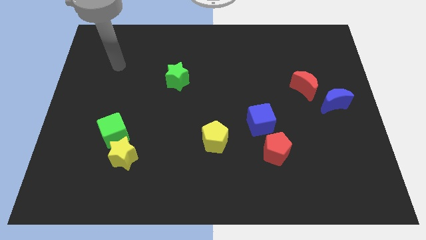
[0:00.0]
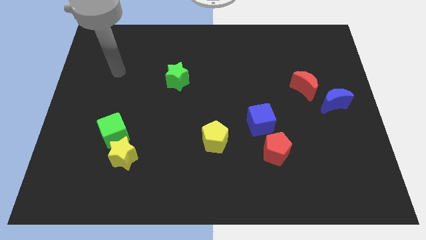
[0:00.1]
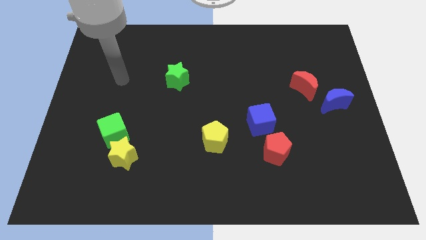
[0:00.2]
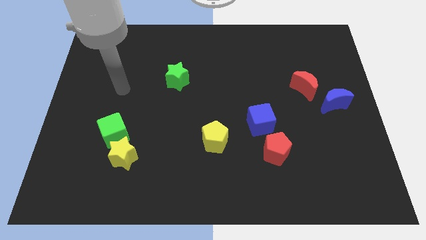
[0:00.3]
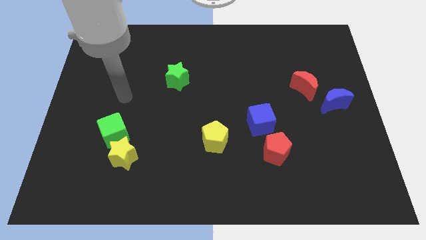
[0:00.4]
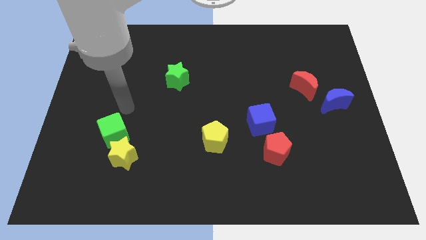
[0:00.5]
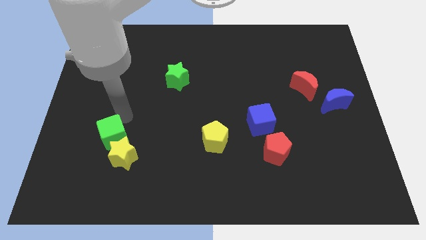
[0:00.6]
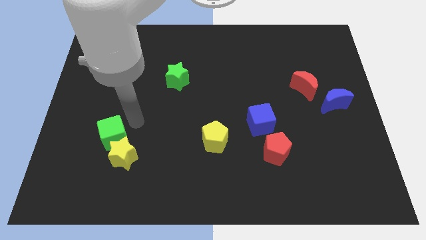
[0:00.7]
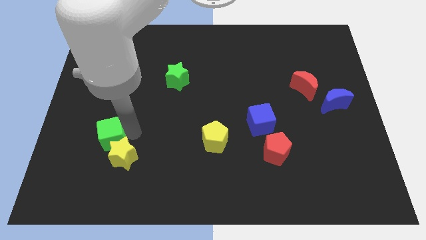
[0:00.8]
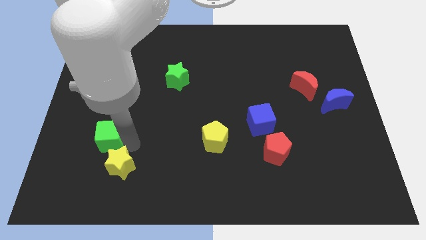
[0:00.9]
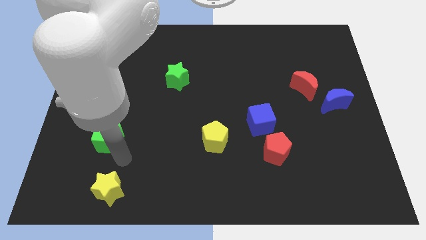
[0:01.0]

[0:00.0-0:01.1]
separate the green cube from the yellow star

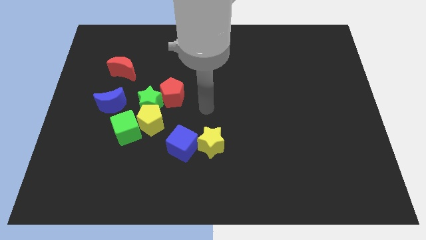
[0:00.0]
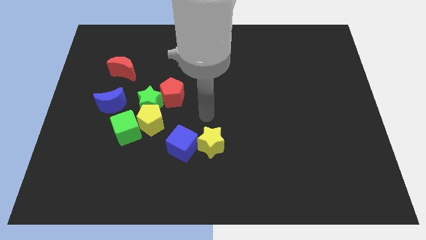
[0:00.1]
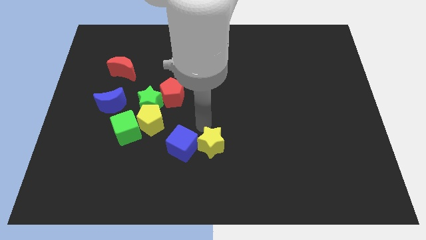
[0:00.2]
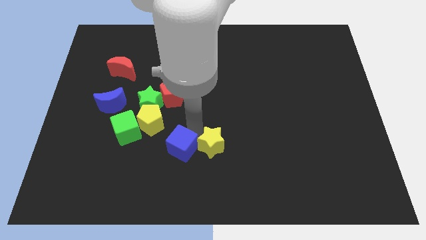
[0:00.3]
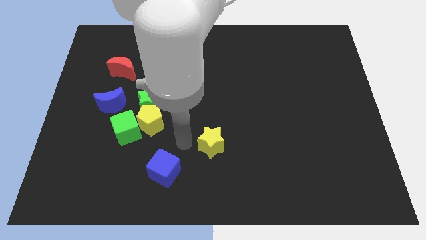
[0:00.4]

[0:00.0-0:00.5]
pull the yellow star apart from the blue cube

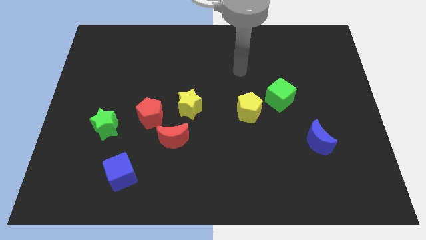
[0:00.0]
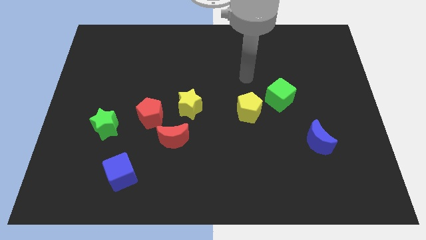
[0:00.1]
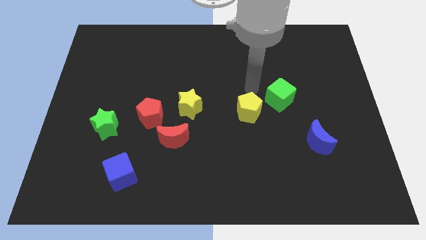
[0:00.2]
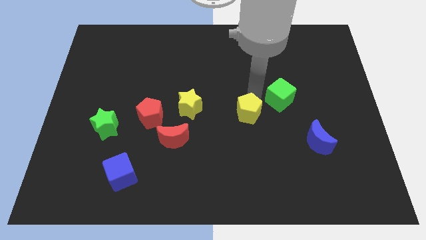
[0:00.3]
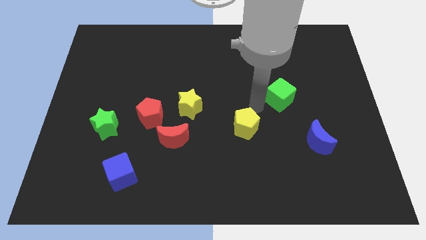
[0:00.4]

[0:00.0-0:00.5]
move the green cube away from the yellow pentagon

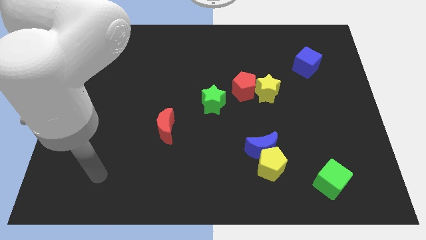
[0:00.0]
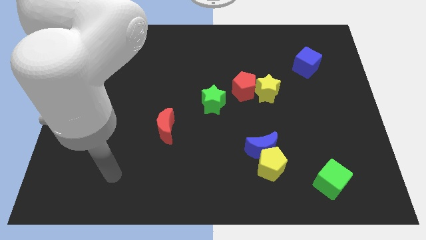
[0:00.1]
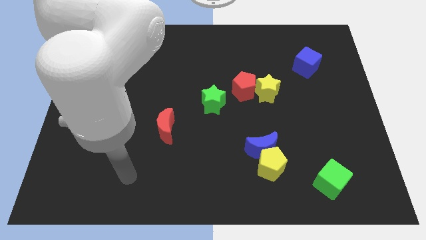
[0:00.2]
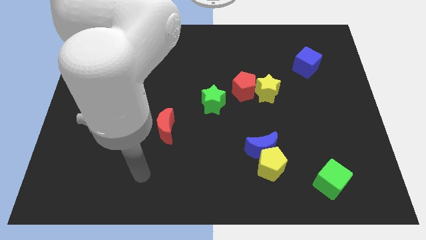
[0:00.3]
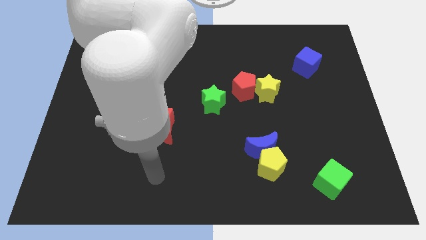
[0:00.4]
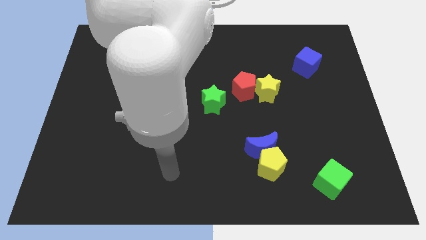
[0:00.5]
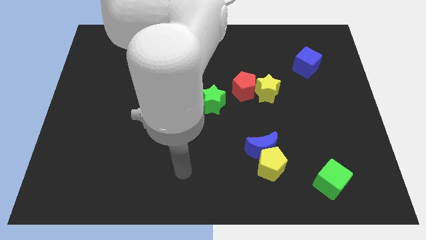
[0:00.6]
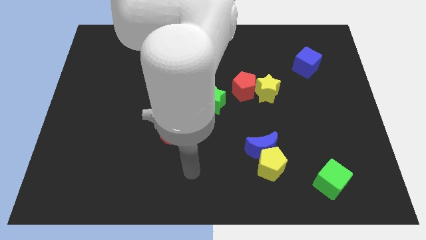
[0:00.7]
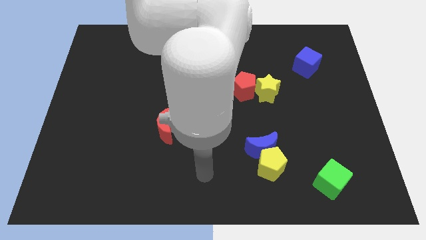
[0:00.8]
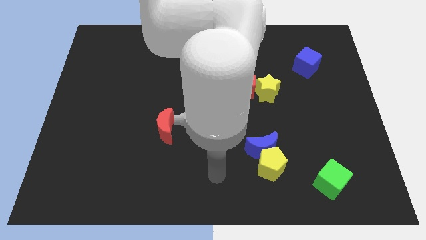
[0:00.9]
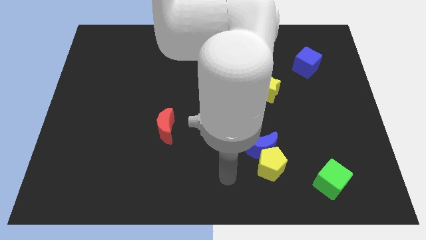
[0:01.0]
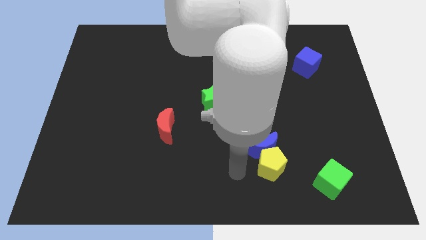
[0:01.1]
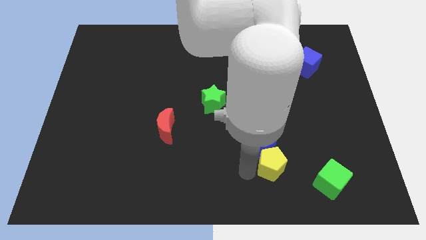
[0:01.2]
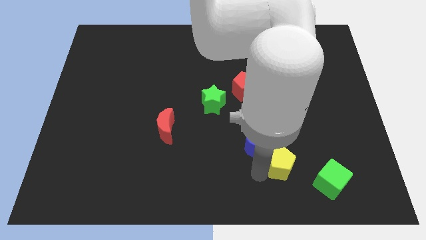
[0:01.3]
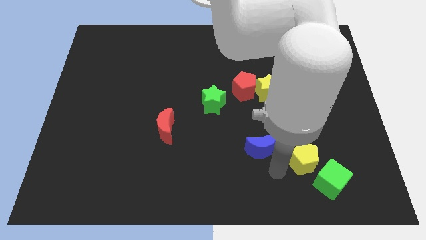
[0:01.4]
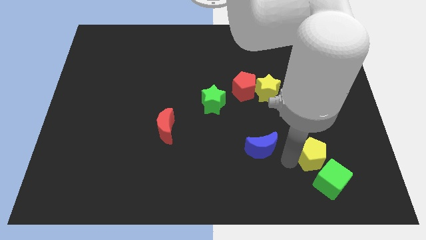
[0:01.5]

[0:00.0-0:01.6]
pull the blue moon apart from the yellow pentagon

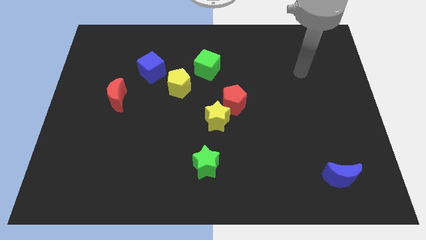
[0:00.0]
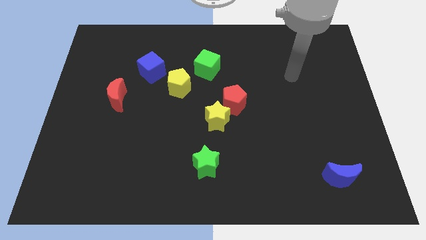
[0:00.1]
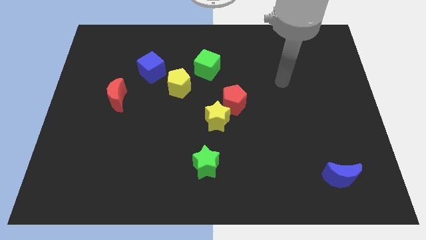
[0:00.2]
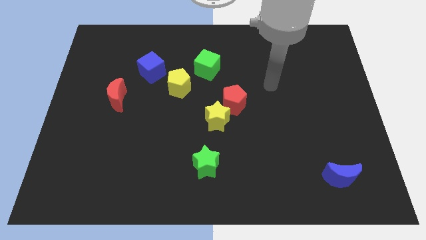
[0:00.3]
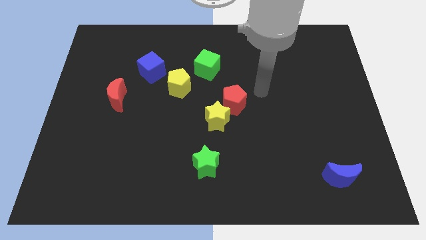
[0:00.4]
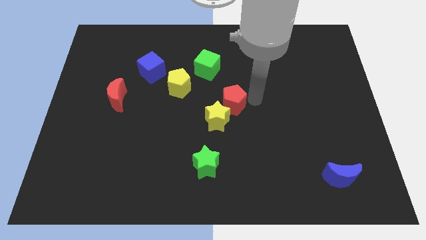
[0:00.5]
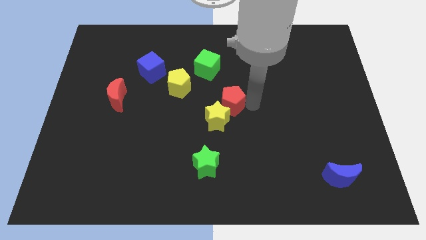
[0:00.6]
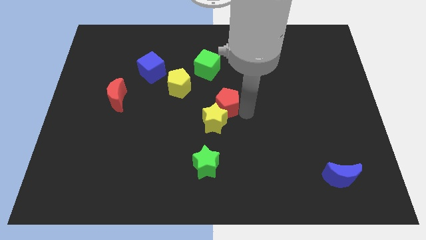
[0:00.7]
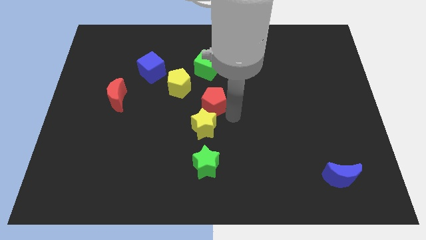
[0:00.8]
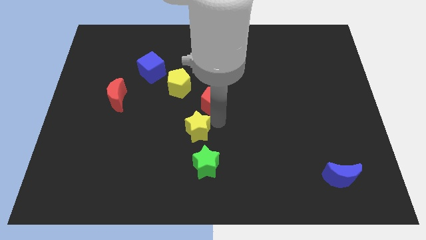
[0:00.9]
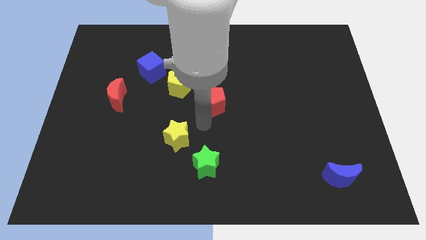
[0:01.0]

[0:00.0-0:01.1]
move the red pentagon away from the yellow star

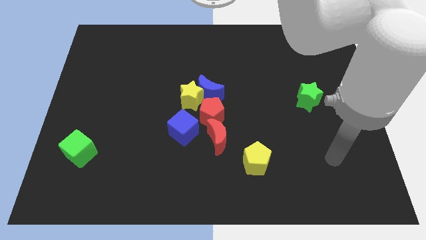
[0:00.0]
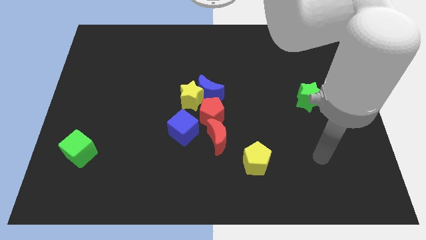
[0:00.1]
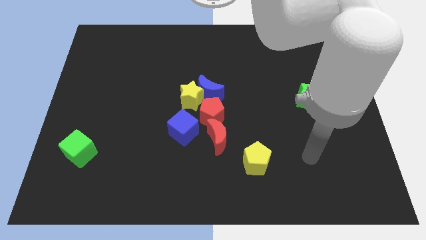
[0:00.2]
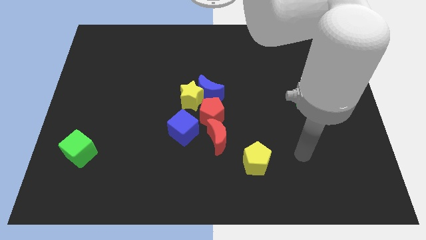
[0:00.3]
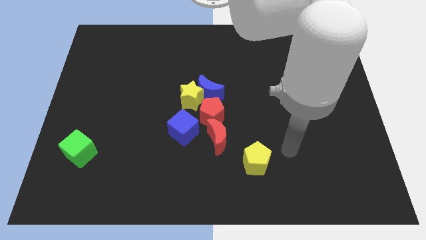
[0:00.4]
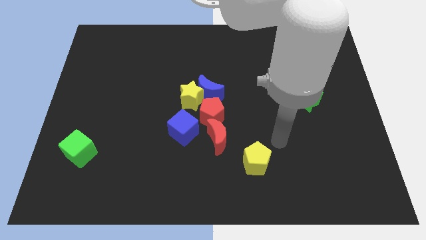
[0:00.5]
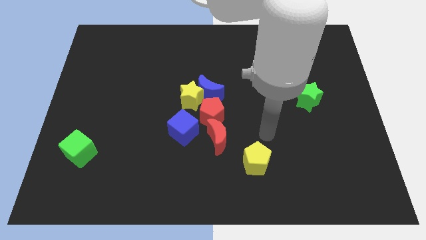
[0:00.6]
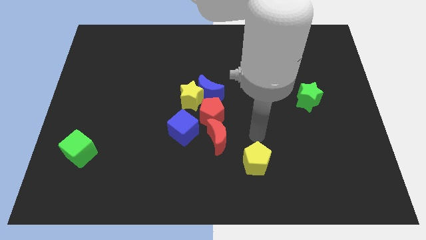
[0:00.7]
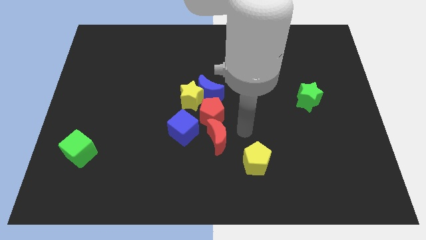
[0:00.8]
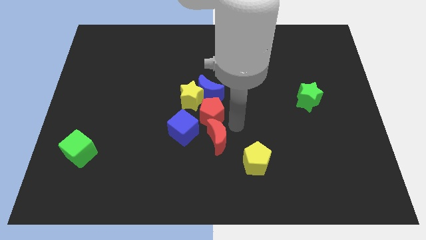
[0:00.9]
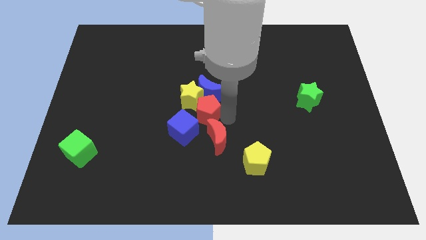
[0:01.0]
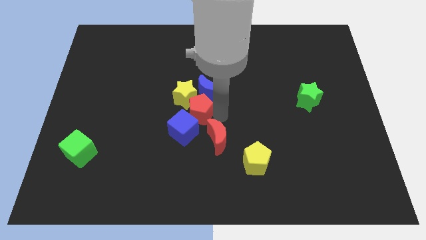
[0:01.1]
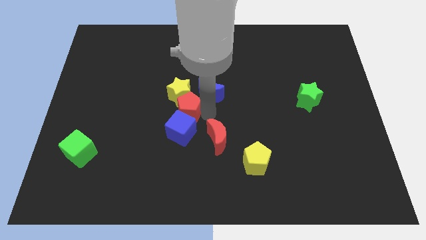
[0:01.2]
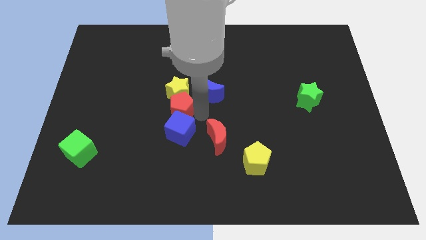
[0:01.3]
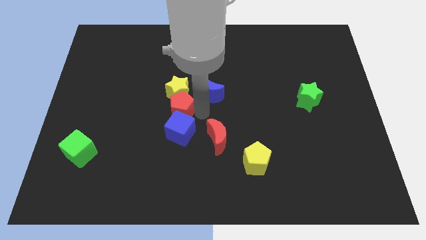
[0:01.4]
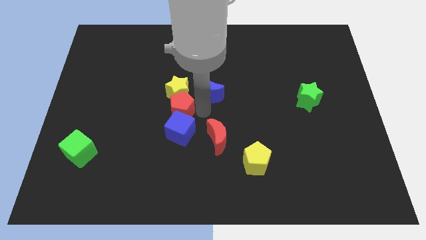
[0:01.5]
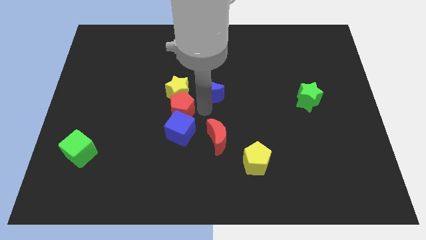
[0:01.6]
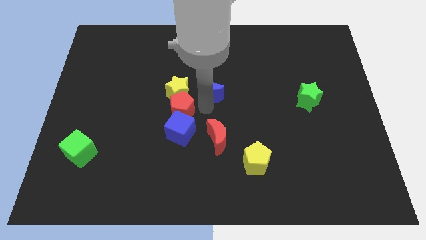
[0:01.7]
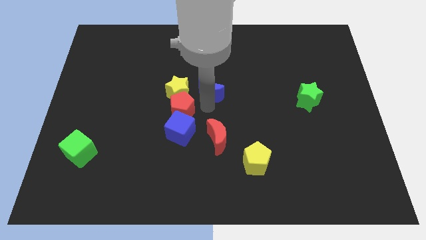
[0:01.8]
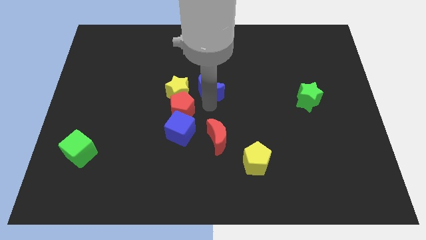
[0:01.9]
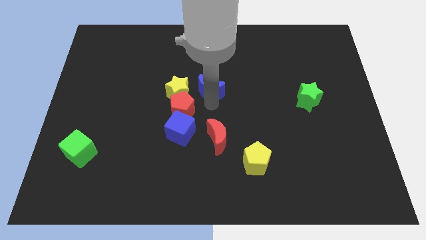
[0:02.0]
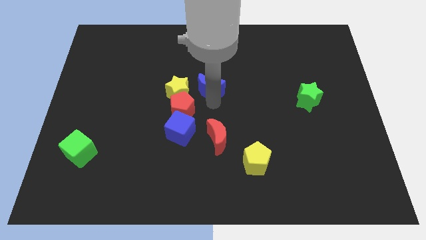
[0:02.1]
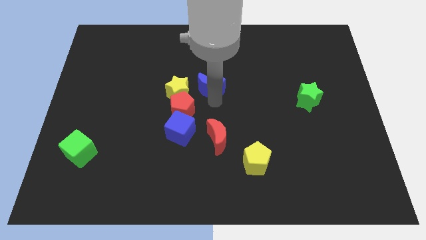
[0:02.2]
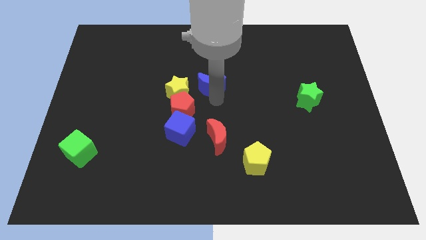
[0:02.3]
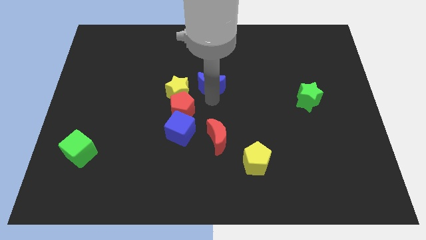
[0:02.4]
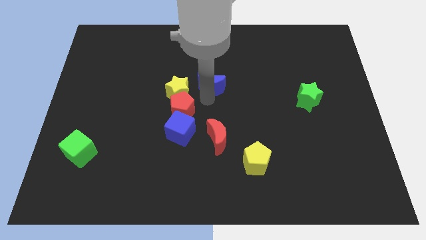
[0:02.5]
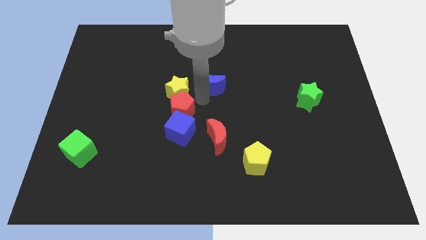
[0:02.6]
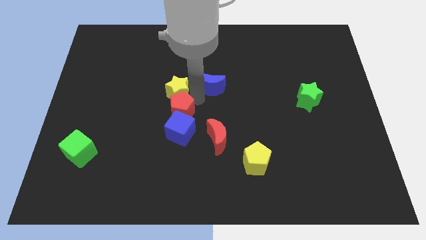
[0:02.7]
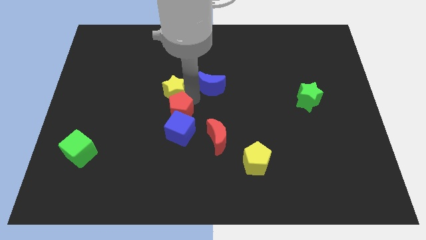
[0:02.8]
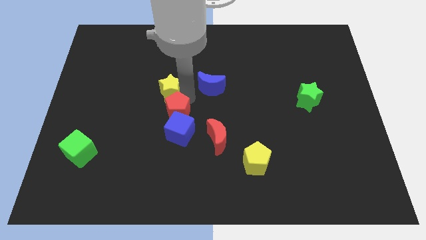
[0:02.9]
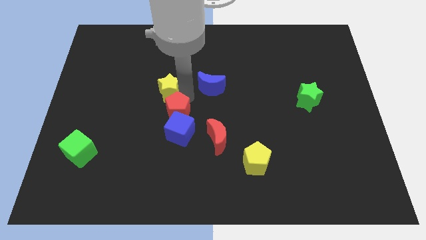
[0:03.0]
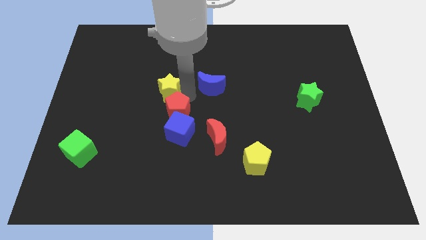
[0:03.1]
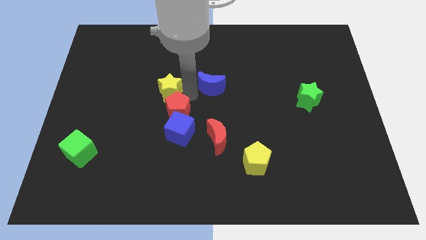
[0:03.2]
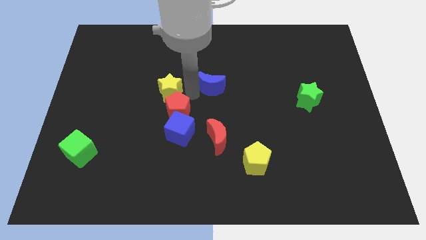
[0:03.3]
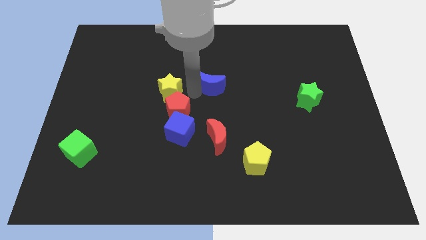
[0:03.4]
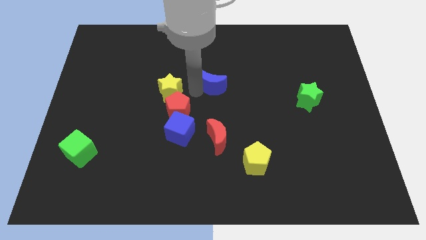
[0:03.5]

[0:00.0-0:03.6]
move the blue moon away from the yellow star and red pentagon

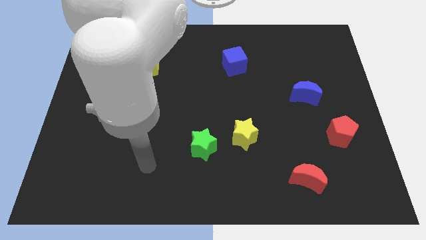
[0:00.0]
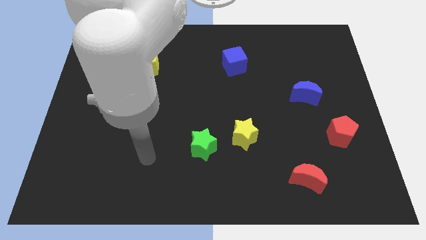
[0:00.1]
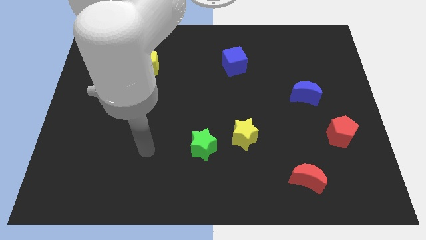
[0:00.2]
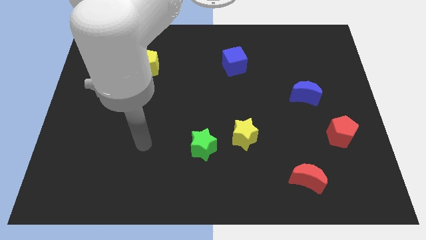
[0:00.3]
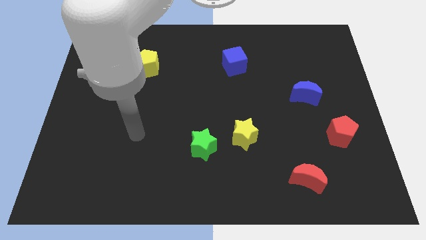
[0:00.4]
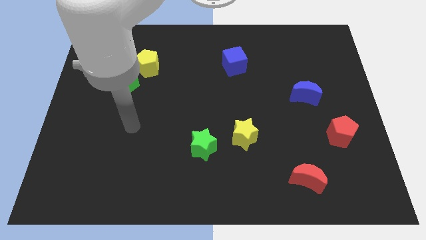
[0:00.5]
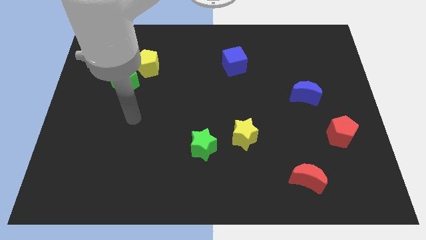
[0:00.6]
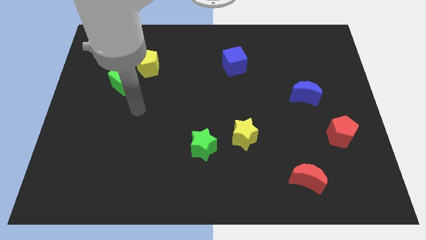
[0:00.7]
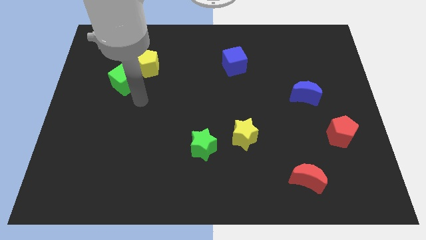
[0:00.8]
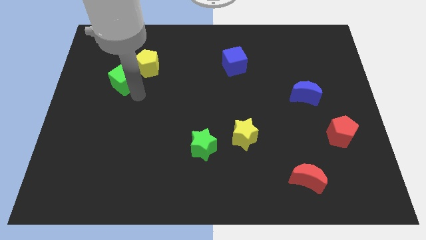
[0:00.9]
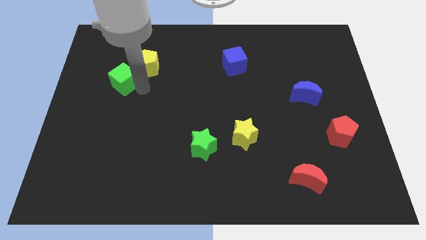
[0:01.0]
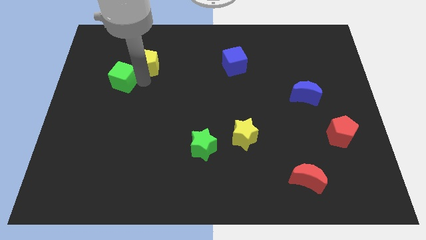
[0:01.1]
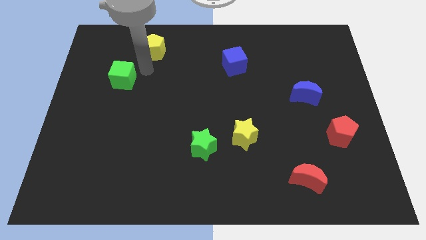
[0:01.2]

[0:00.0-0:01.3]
pull the green cube apart from the yellow pentagon
